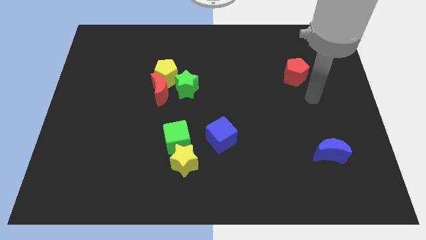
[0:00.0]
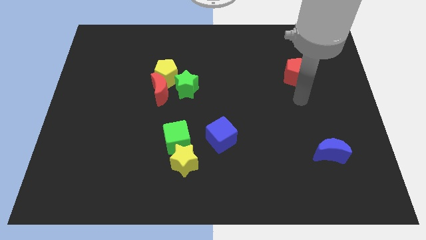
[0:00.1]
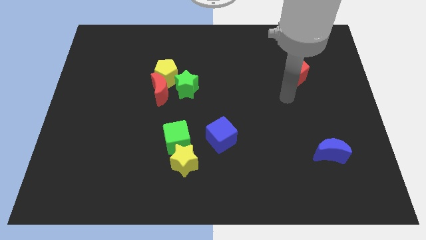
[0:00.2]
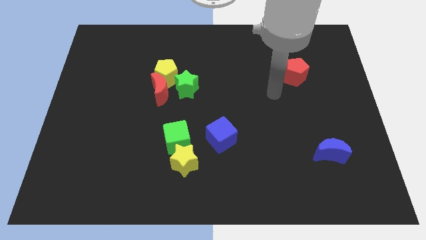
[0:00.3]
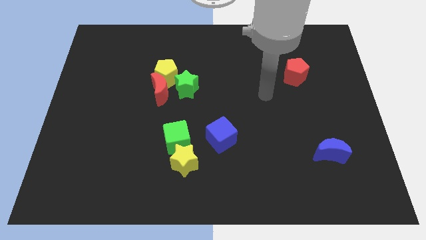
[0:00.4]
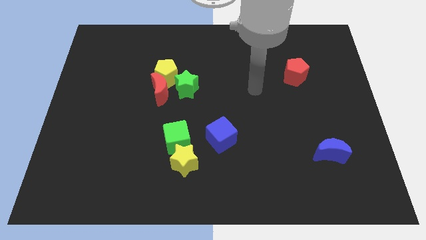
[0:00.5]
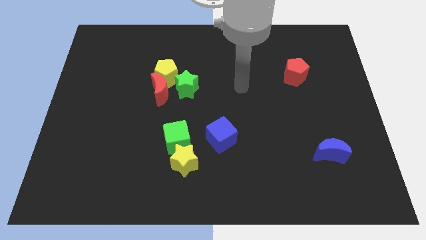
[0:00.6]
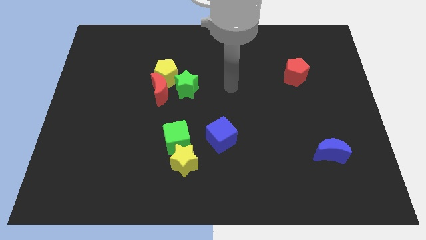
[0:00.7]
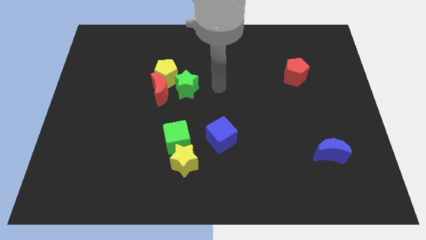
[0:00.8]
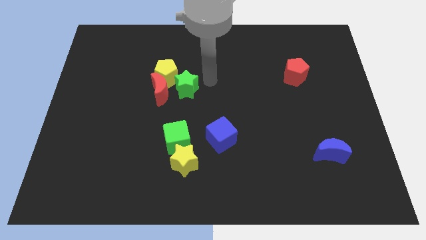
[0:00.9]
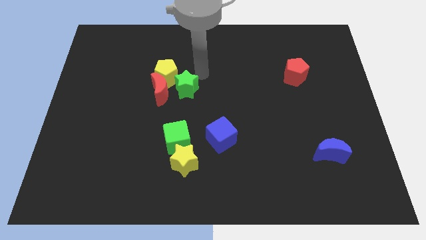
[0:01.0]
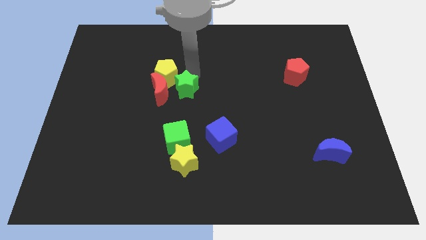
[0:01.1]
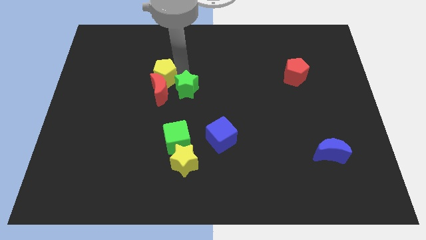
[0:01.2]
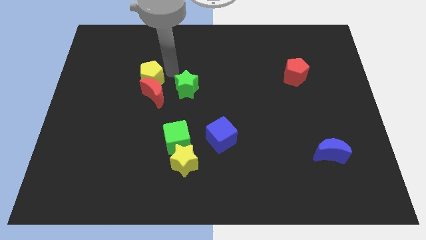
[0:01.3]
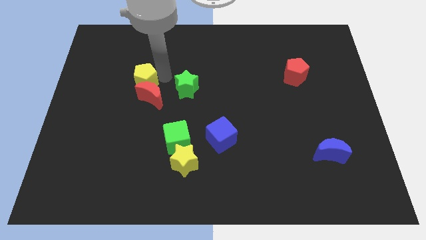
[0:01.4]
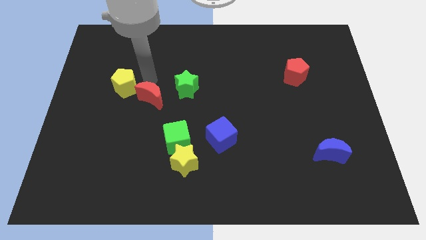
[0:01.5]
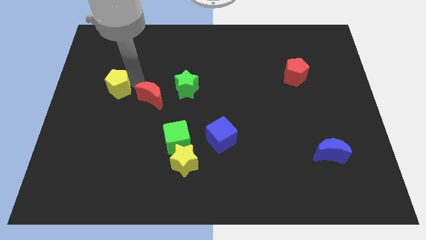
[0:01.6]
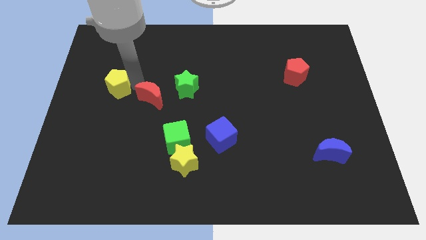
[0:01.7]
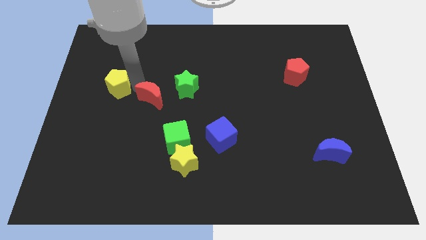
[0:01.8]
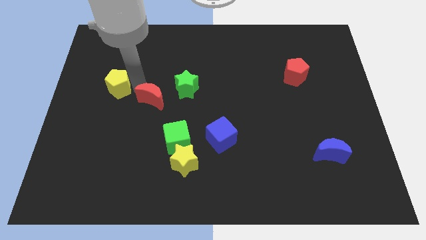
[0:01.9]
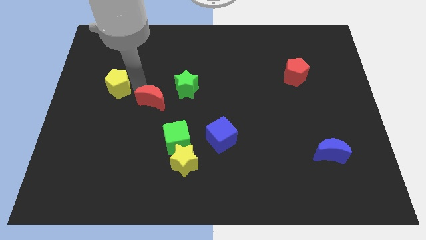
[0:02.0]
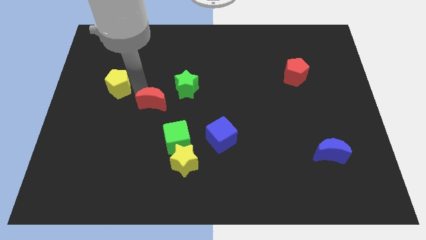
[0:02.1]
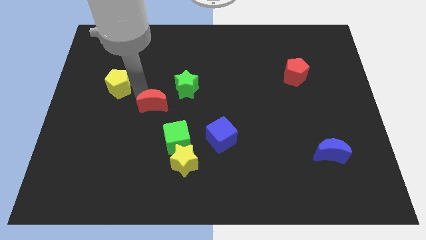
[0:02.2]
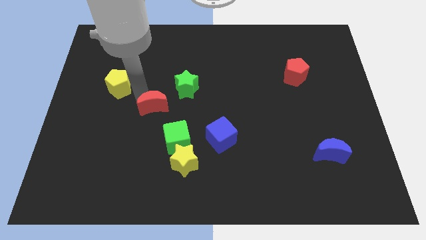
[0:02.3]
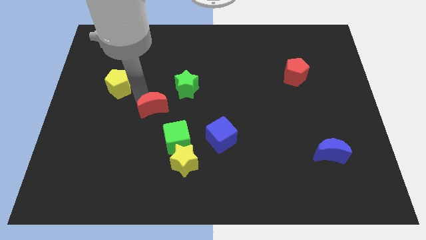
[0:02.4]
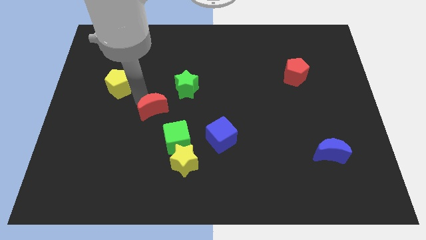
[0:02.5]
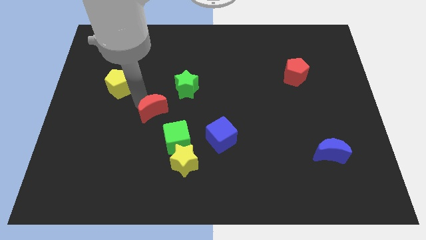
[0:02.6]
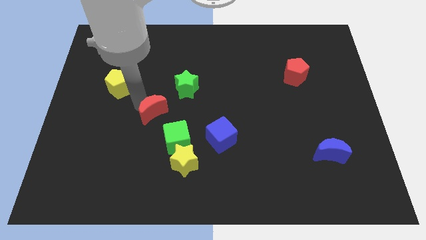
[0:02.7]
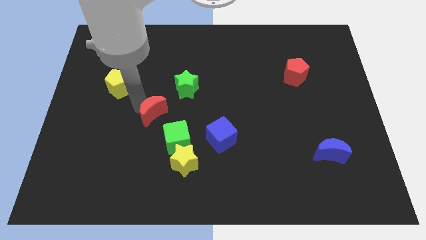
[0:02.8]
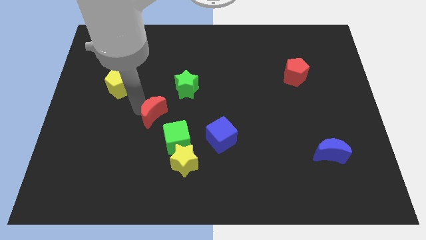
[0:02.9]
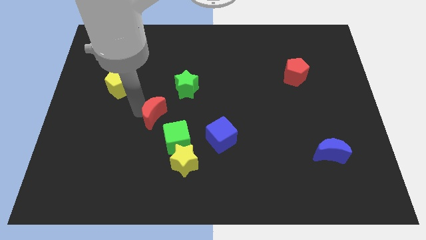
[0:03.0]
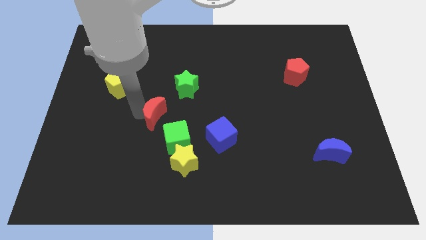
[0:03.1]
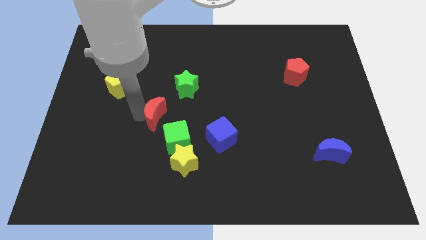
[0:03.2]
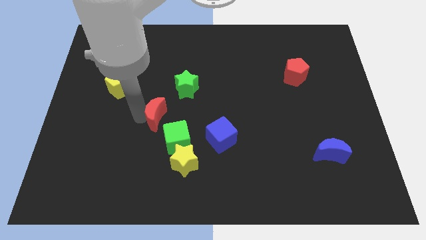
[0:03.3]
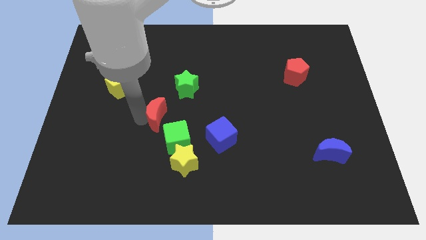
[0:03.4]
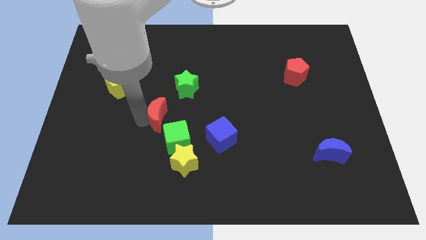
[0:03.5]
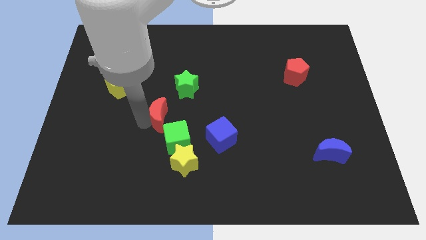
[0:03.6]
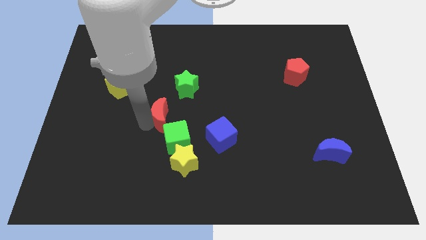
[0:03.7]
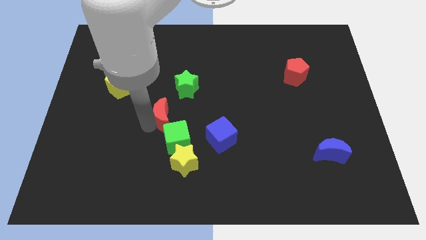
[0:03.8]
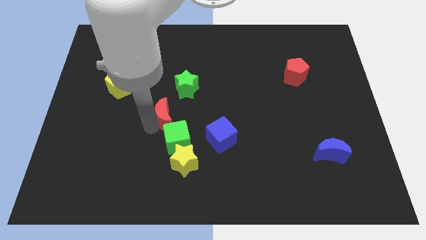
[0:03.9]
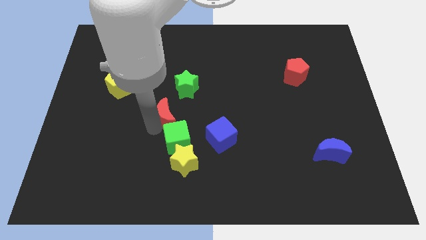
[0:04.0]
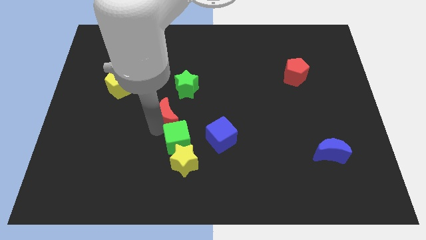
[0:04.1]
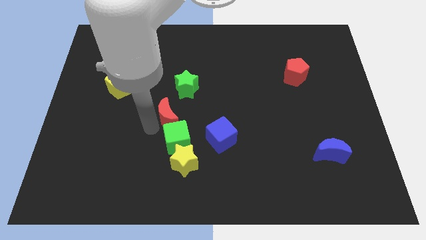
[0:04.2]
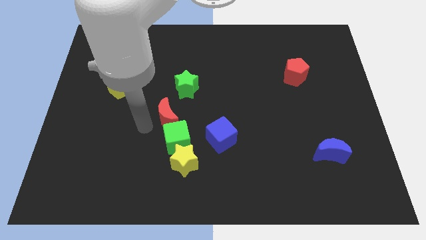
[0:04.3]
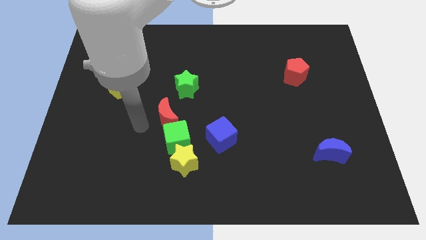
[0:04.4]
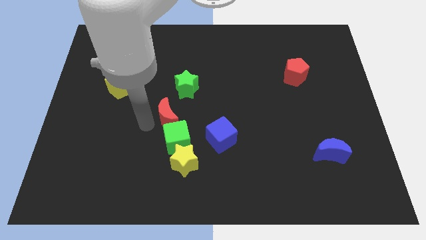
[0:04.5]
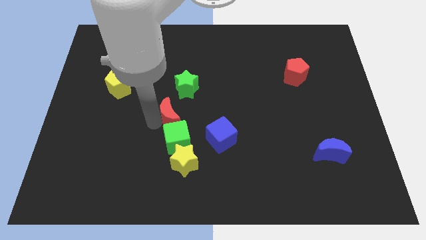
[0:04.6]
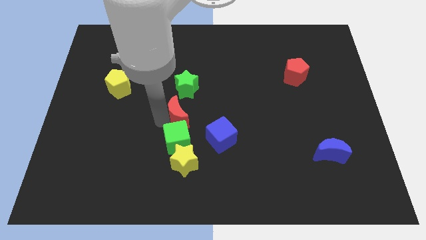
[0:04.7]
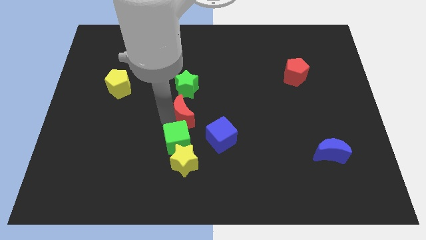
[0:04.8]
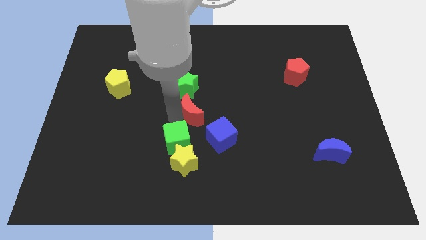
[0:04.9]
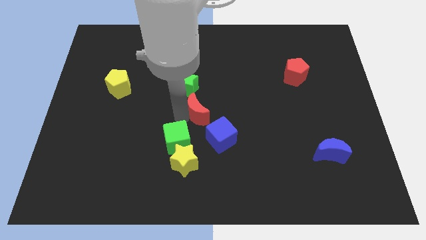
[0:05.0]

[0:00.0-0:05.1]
push the red moon a little right

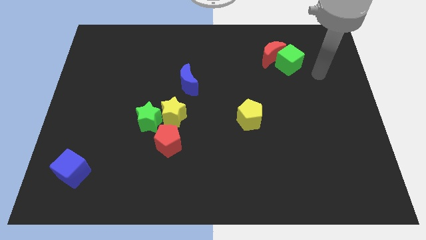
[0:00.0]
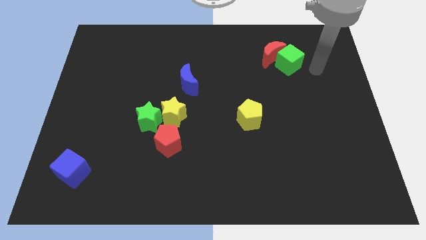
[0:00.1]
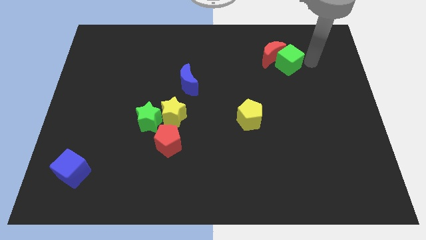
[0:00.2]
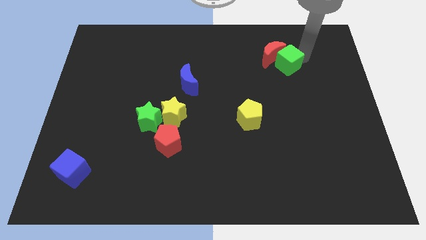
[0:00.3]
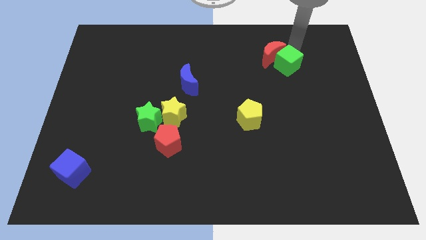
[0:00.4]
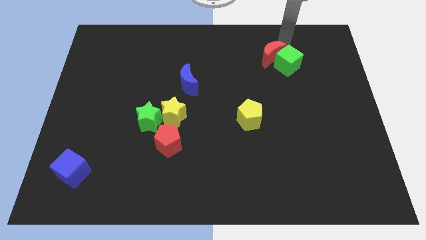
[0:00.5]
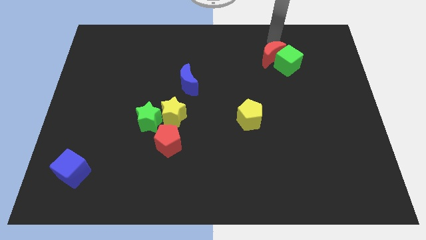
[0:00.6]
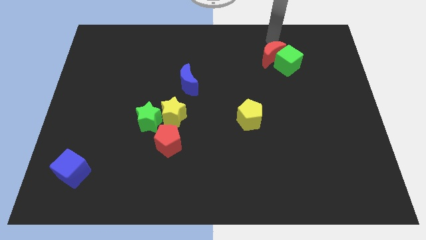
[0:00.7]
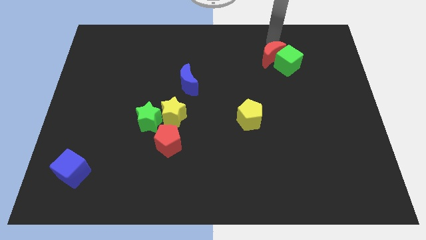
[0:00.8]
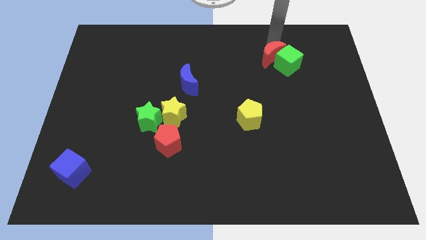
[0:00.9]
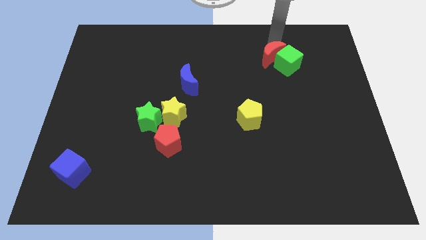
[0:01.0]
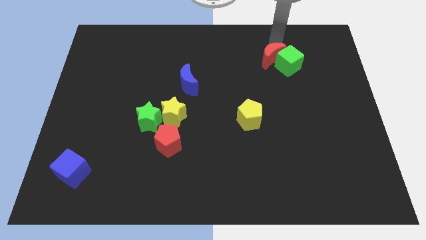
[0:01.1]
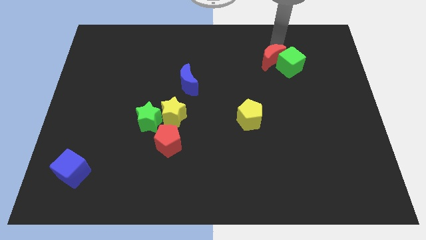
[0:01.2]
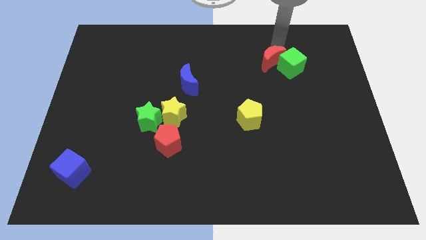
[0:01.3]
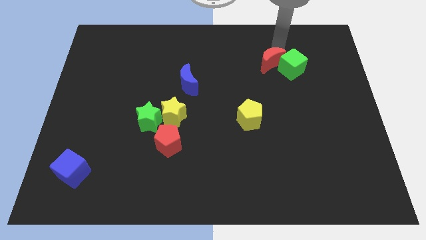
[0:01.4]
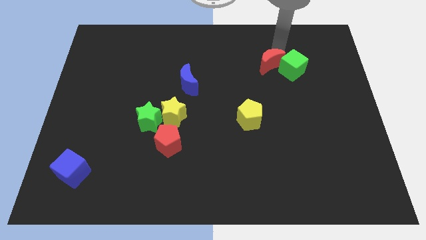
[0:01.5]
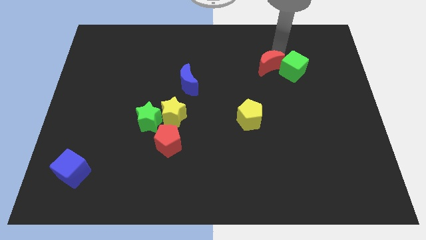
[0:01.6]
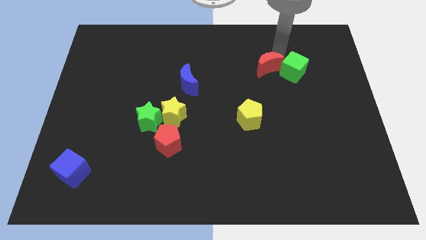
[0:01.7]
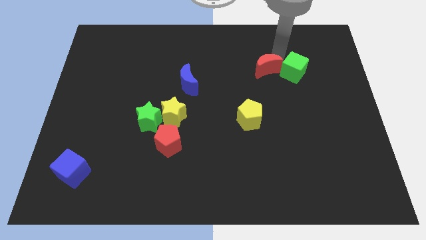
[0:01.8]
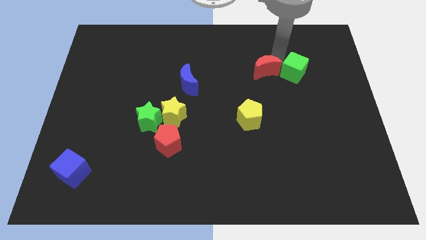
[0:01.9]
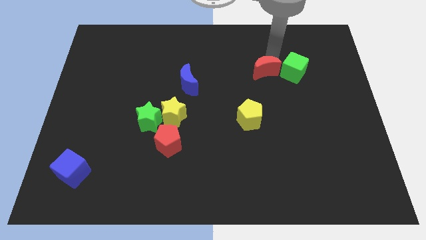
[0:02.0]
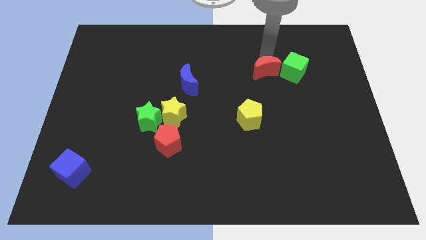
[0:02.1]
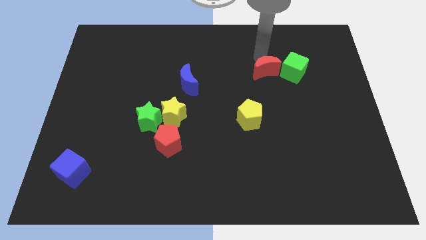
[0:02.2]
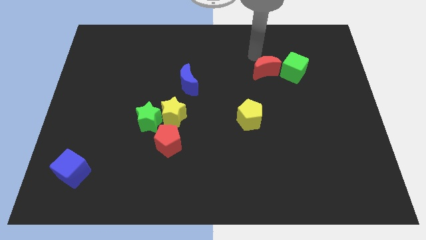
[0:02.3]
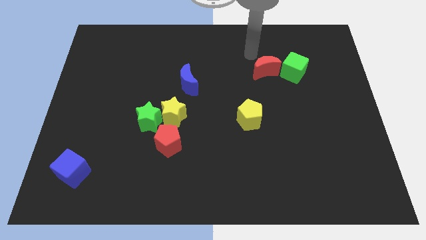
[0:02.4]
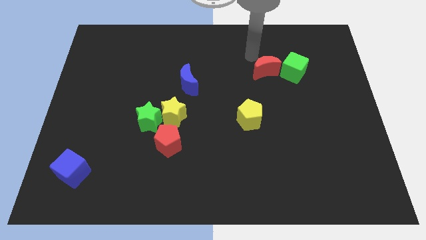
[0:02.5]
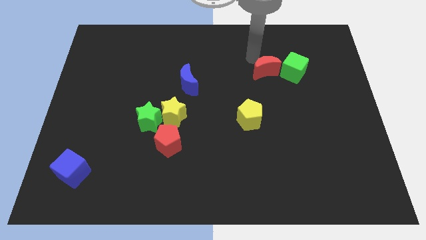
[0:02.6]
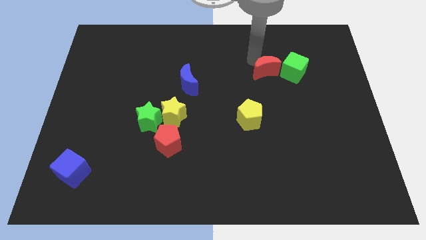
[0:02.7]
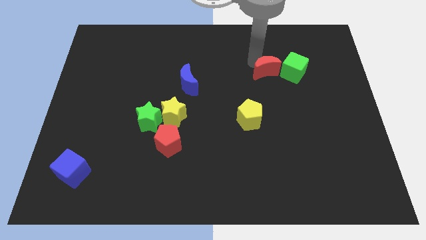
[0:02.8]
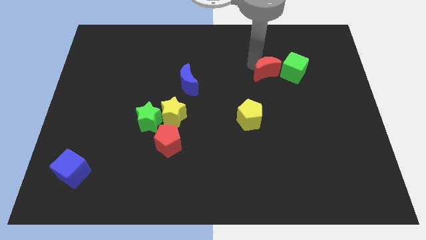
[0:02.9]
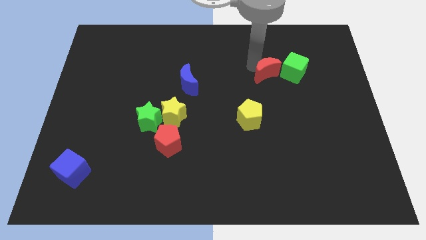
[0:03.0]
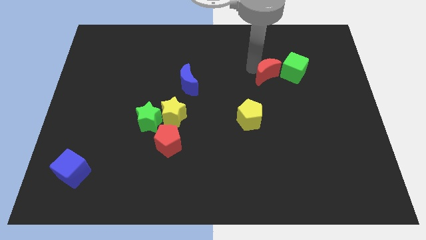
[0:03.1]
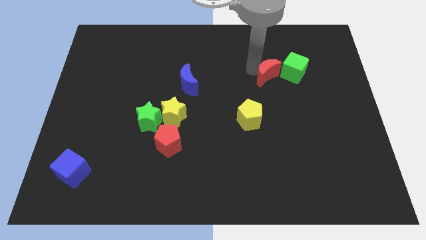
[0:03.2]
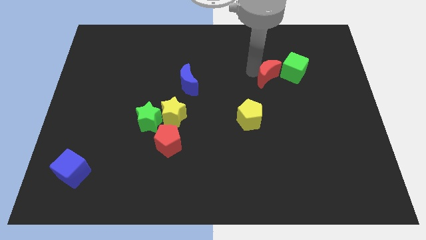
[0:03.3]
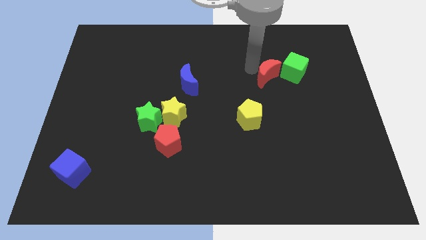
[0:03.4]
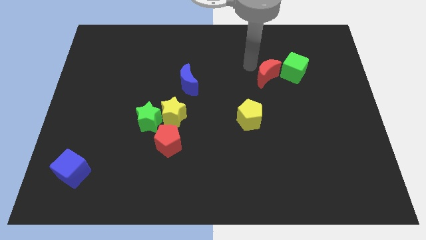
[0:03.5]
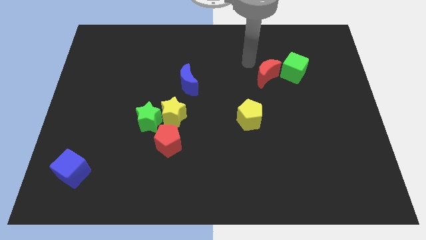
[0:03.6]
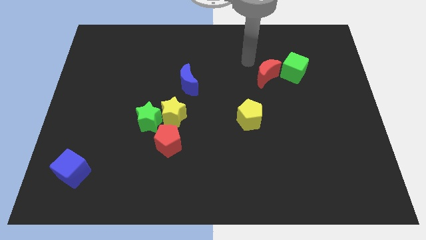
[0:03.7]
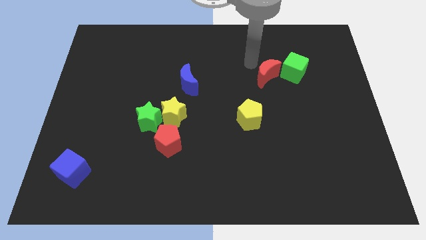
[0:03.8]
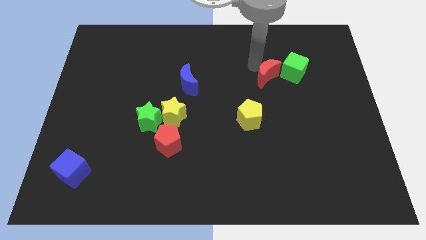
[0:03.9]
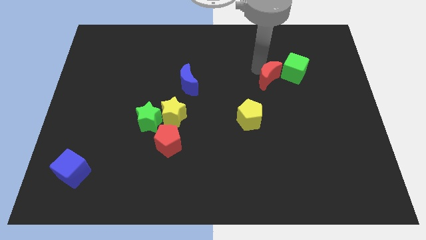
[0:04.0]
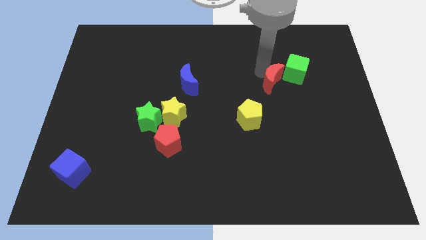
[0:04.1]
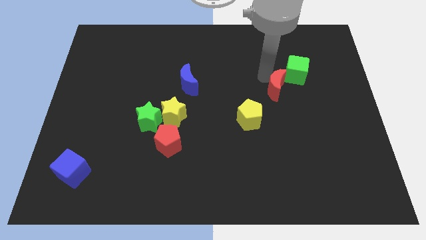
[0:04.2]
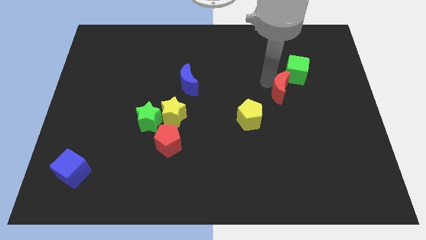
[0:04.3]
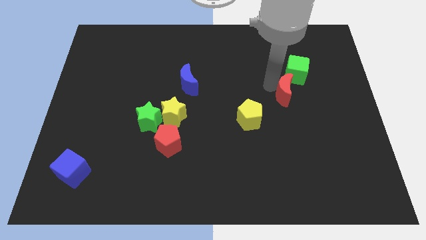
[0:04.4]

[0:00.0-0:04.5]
slightly push the red moon down and to the right
